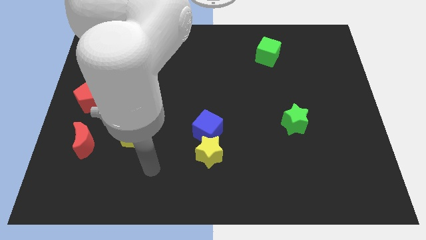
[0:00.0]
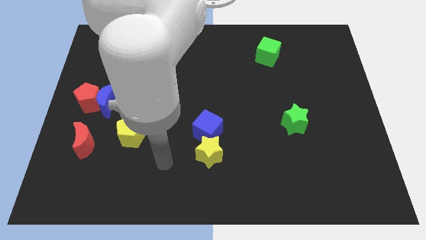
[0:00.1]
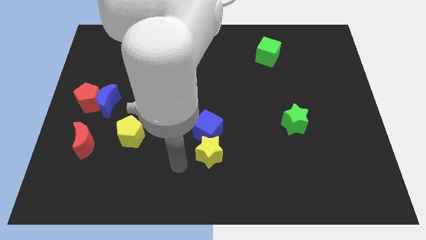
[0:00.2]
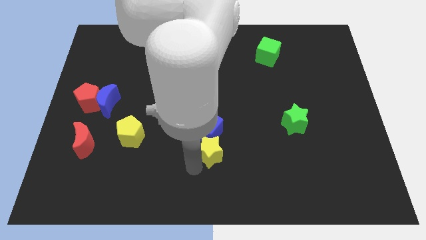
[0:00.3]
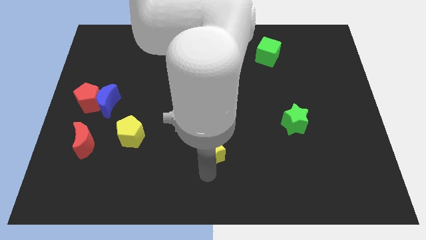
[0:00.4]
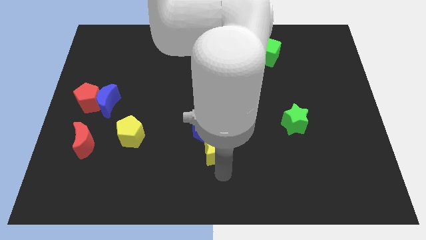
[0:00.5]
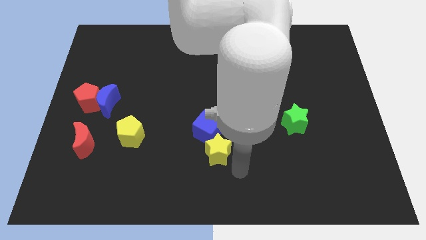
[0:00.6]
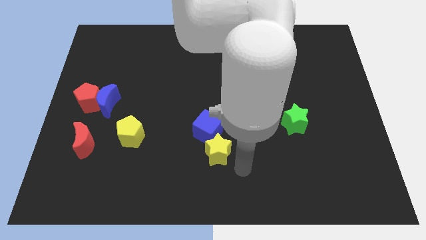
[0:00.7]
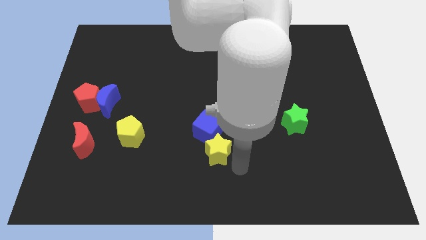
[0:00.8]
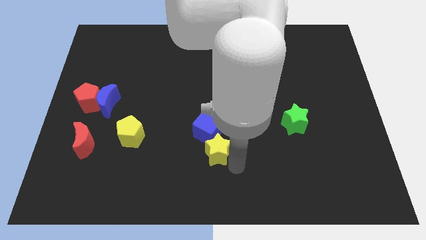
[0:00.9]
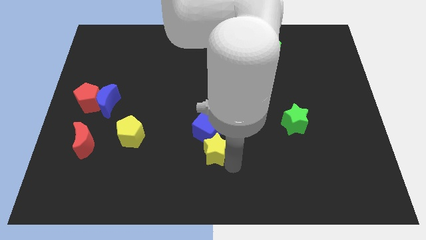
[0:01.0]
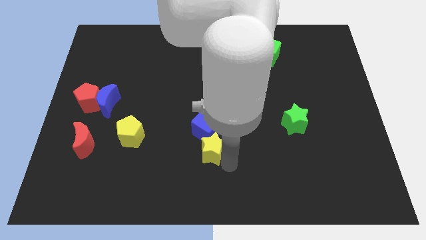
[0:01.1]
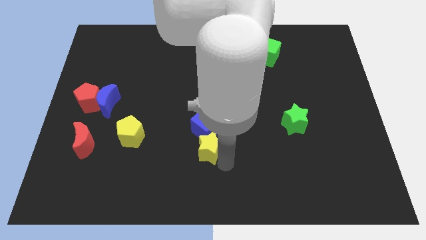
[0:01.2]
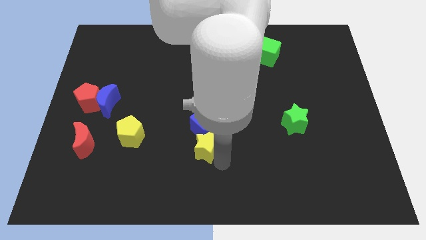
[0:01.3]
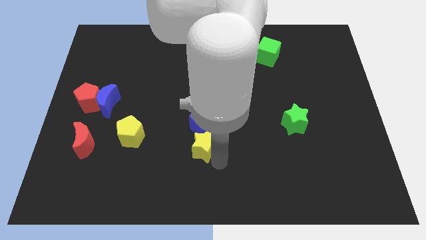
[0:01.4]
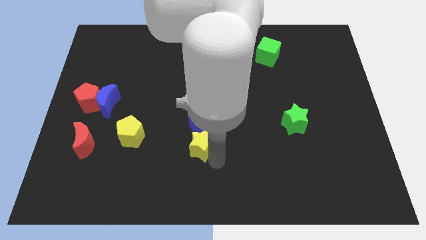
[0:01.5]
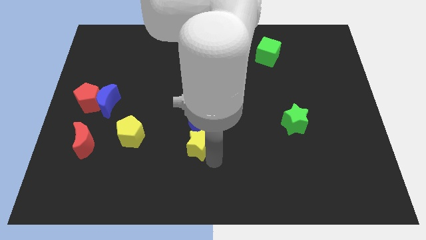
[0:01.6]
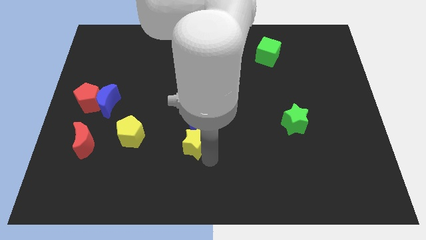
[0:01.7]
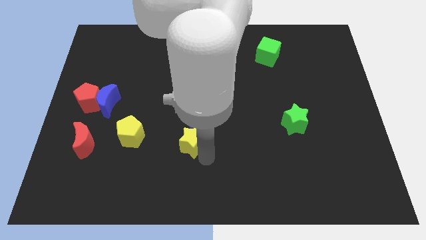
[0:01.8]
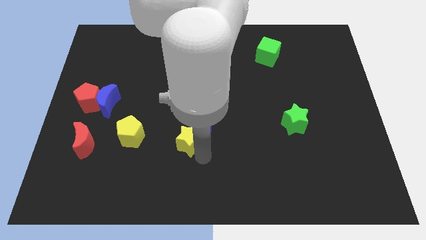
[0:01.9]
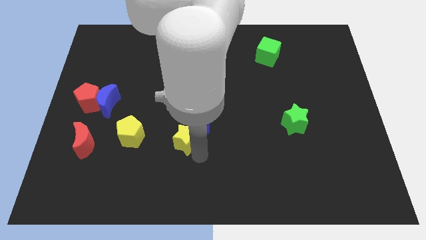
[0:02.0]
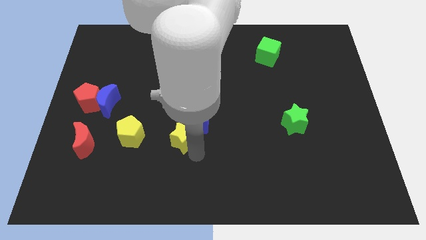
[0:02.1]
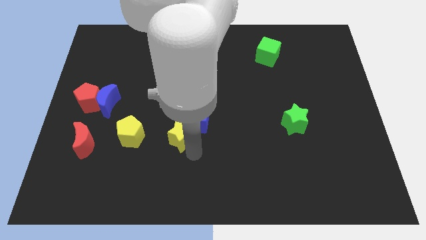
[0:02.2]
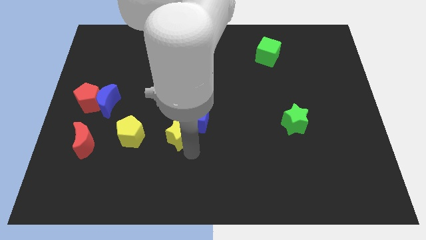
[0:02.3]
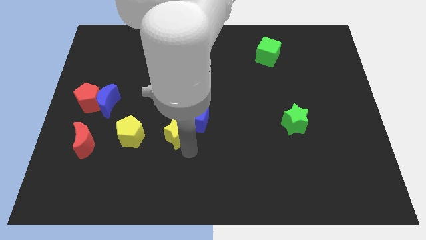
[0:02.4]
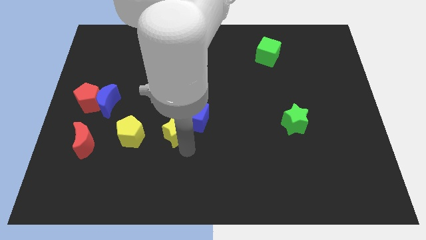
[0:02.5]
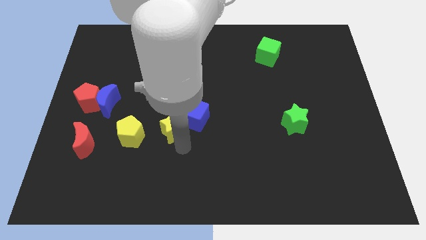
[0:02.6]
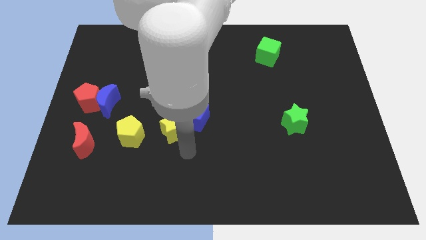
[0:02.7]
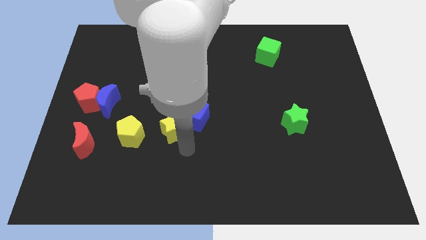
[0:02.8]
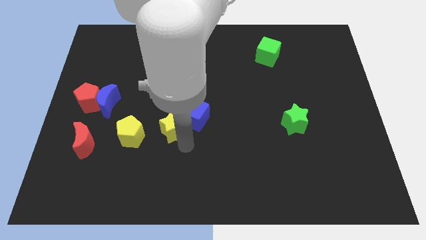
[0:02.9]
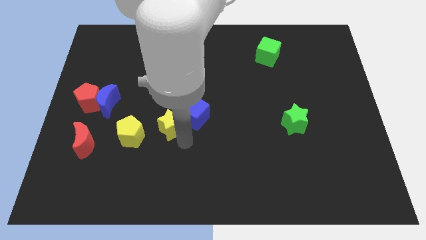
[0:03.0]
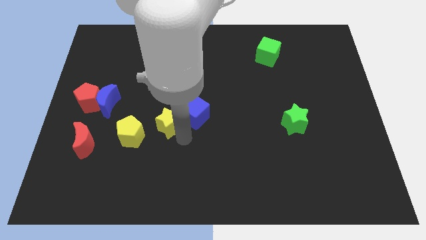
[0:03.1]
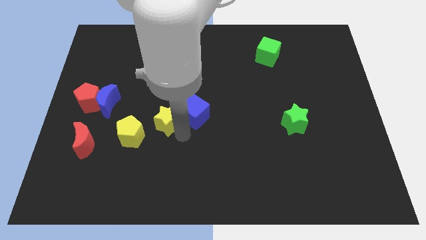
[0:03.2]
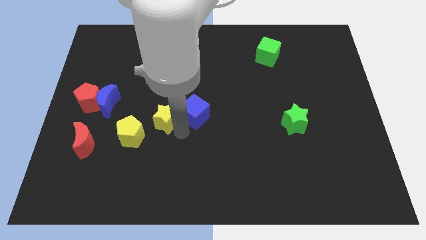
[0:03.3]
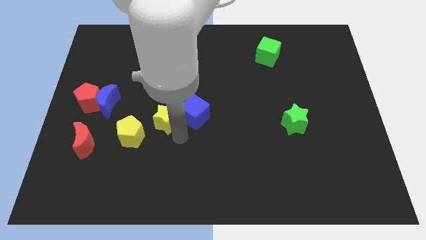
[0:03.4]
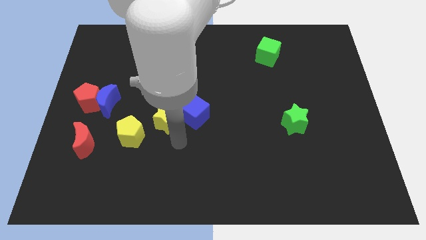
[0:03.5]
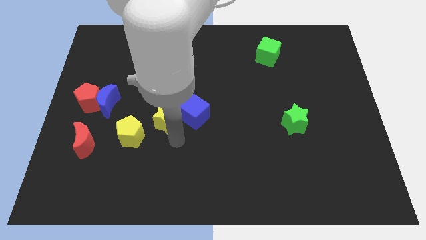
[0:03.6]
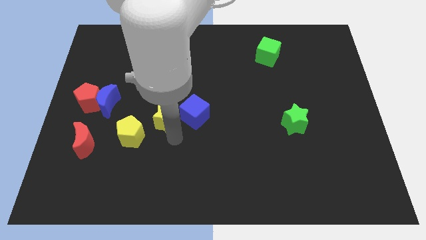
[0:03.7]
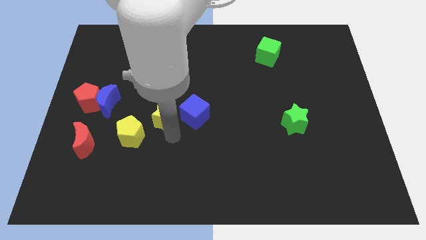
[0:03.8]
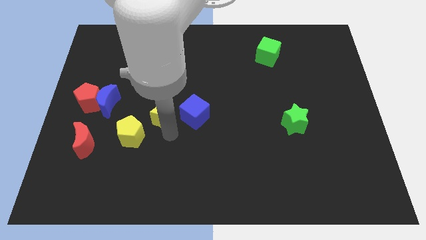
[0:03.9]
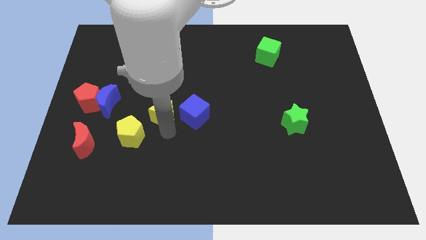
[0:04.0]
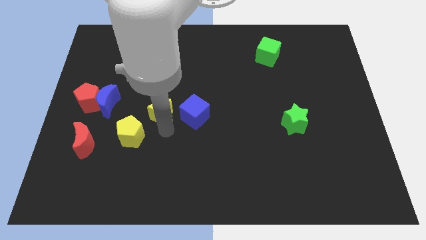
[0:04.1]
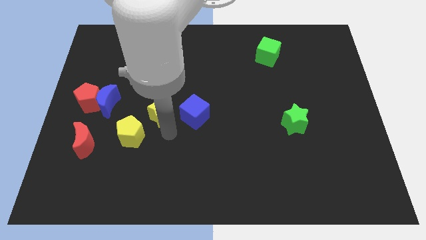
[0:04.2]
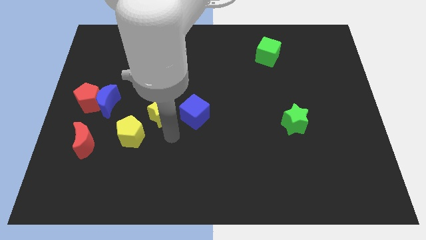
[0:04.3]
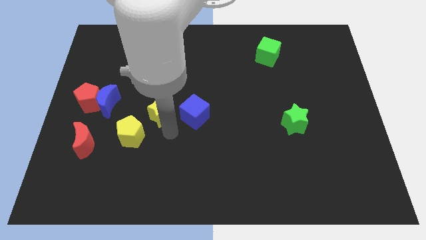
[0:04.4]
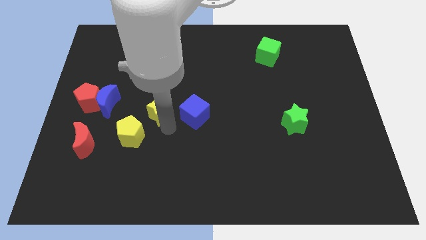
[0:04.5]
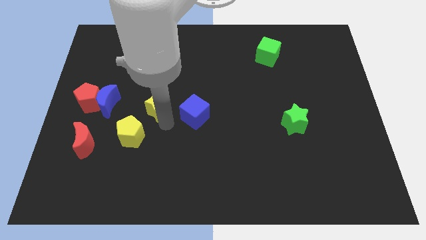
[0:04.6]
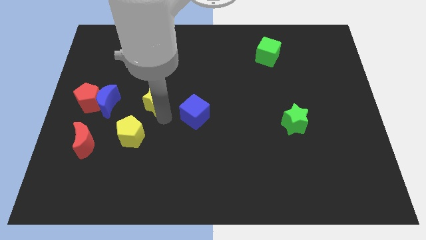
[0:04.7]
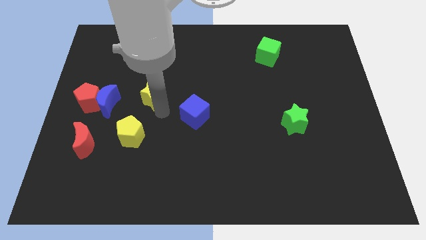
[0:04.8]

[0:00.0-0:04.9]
move the yellow star up and left

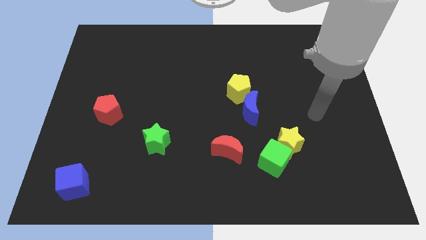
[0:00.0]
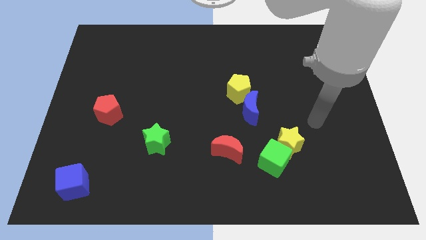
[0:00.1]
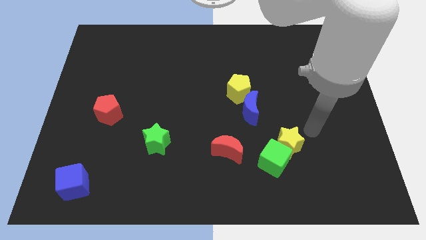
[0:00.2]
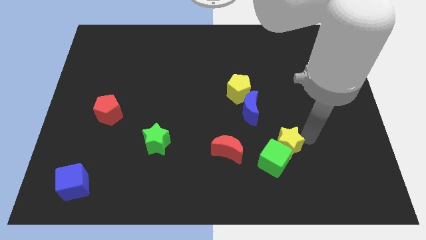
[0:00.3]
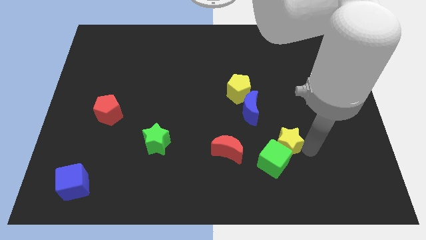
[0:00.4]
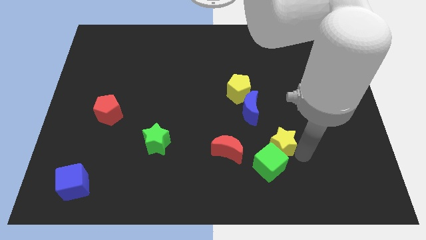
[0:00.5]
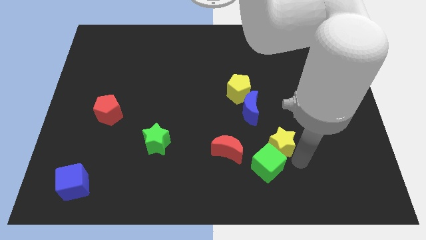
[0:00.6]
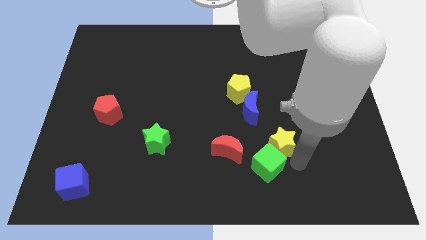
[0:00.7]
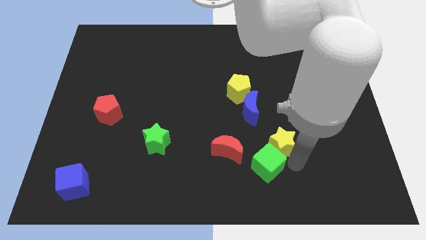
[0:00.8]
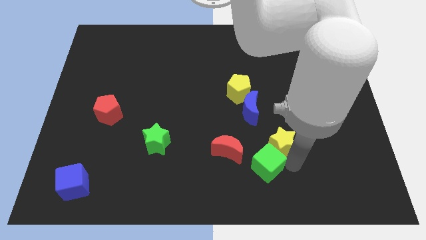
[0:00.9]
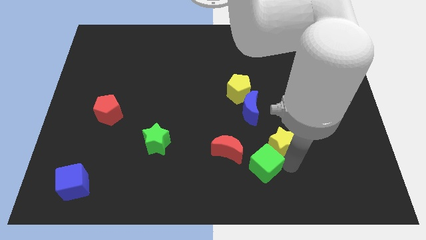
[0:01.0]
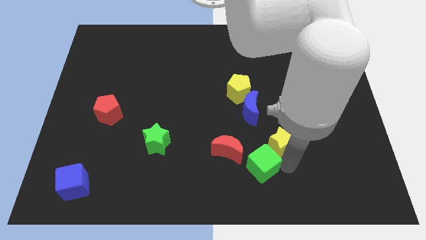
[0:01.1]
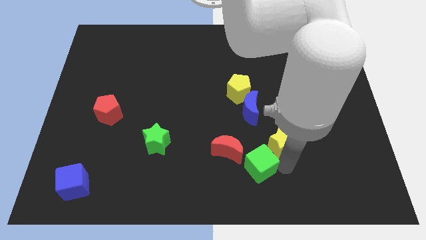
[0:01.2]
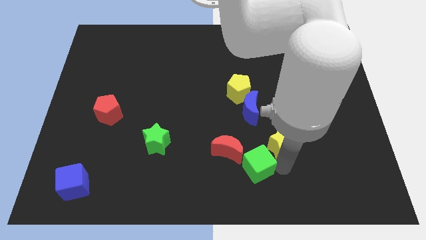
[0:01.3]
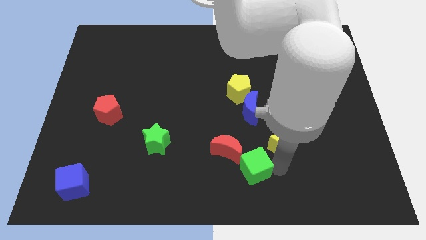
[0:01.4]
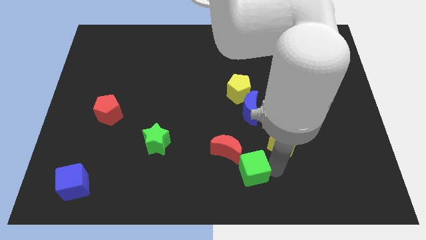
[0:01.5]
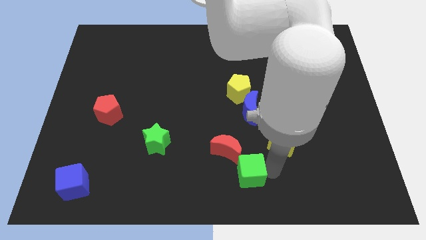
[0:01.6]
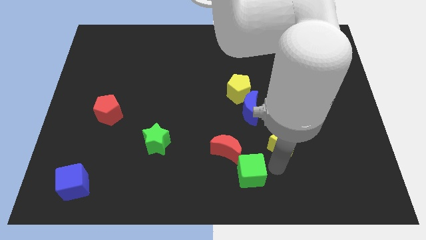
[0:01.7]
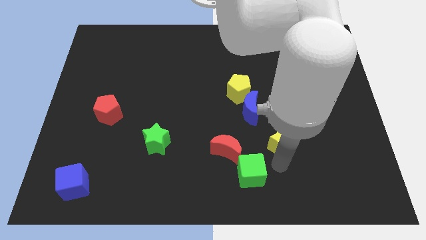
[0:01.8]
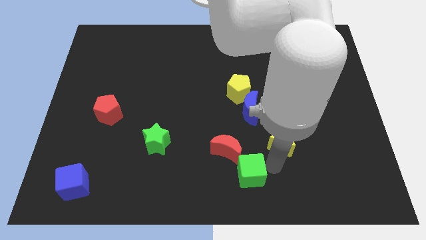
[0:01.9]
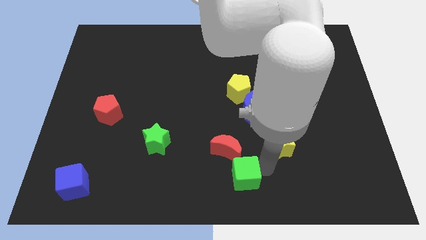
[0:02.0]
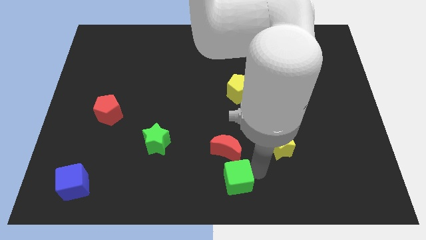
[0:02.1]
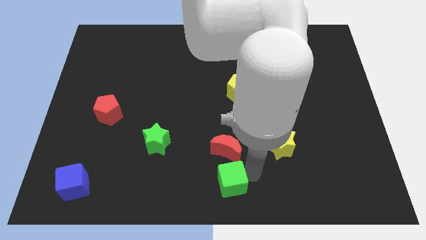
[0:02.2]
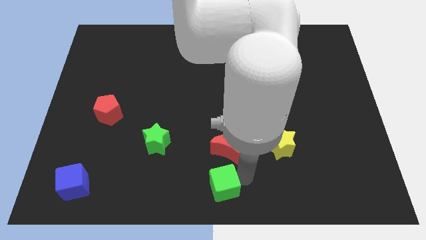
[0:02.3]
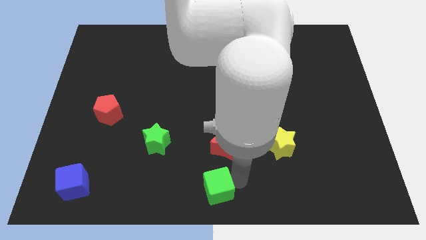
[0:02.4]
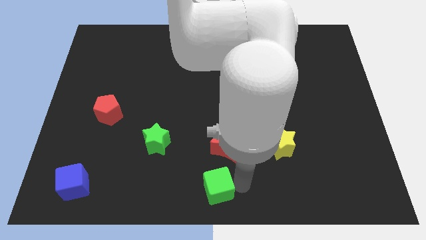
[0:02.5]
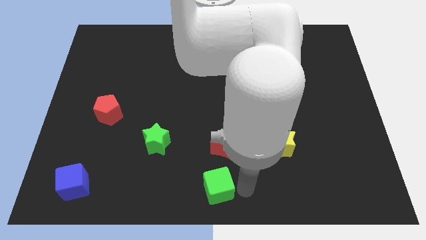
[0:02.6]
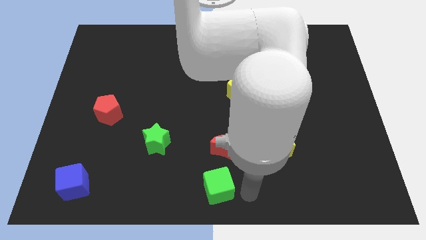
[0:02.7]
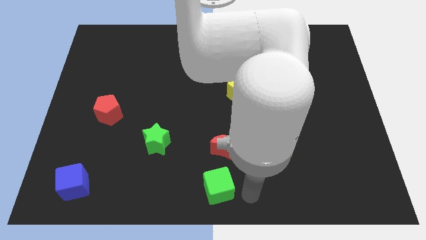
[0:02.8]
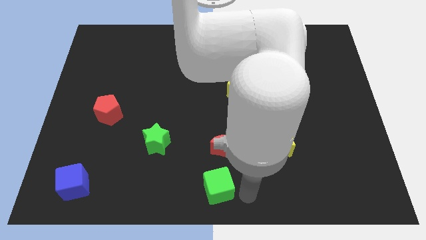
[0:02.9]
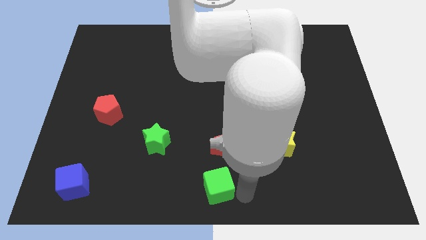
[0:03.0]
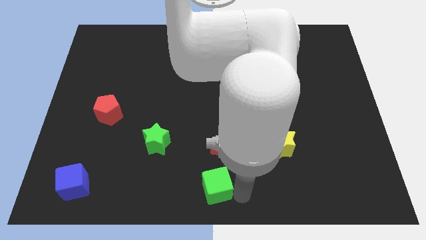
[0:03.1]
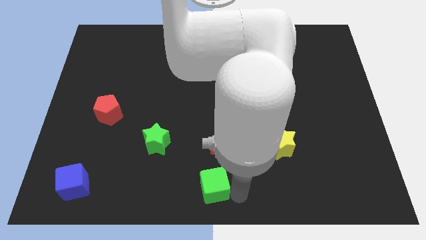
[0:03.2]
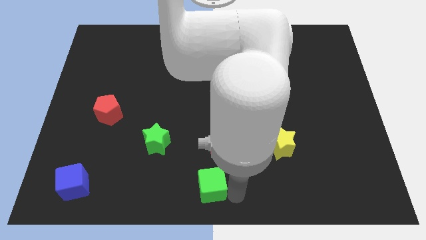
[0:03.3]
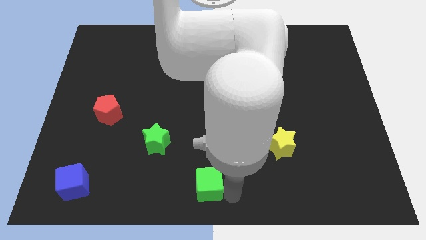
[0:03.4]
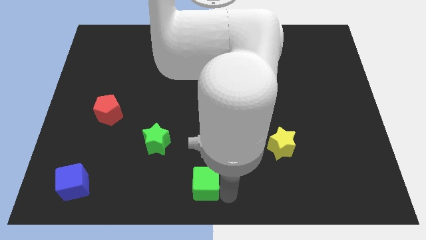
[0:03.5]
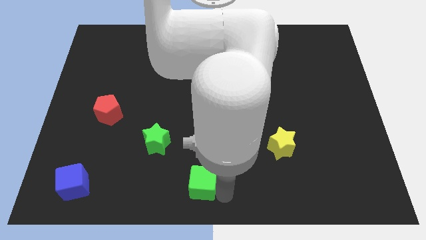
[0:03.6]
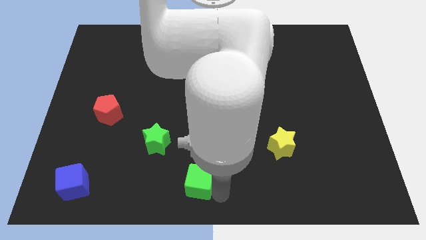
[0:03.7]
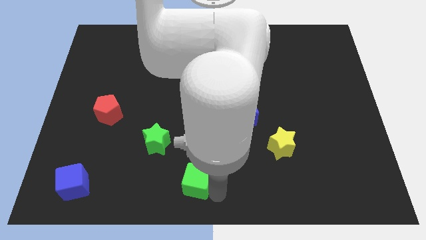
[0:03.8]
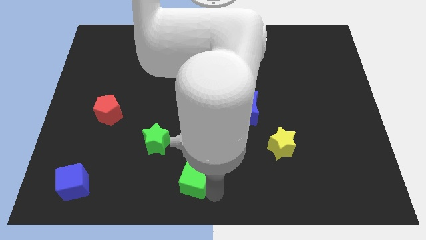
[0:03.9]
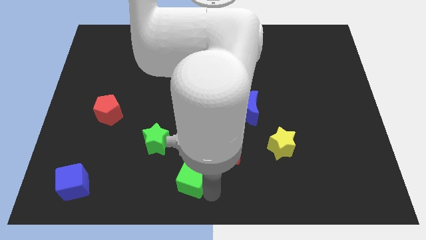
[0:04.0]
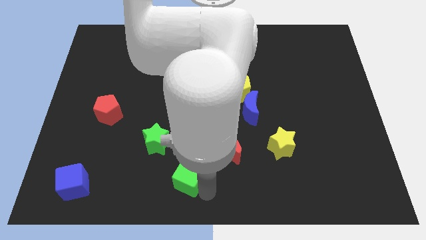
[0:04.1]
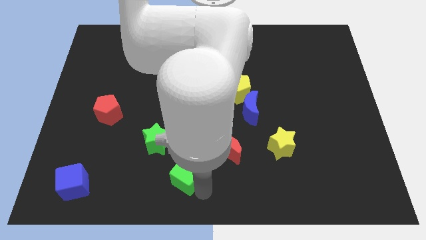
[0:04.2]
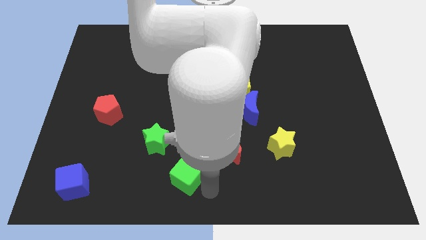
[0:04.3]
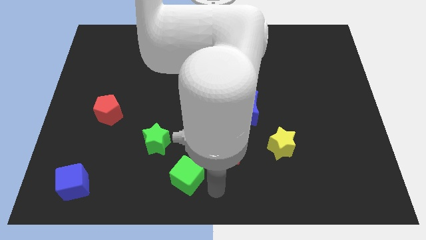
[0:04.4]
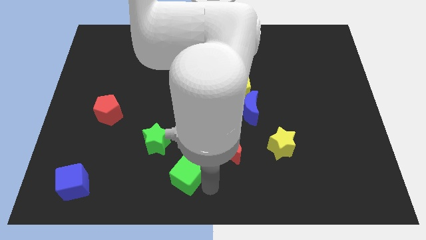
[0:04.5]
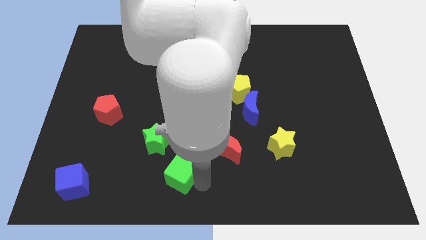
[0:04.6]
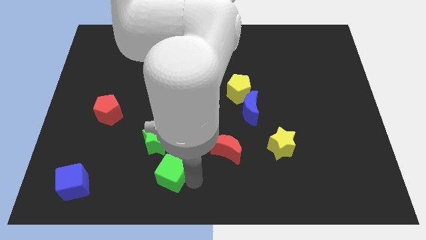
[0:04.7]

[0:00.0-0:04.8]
push the green cube to the left
